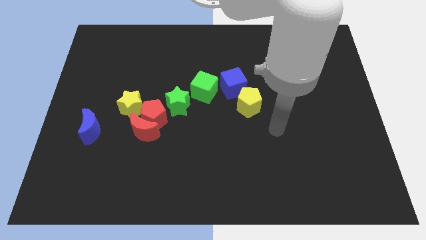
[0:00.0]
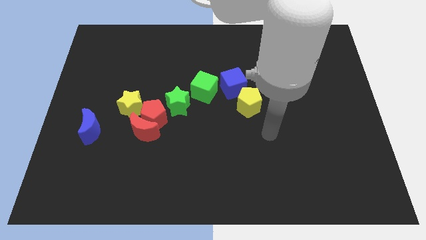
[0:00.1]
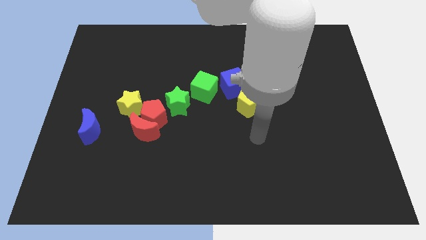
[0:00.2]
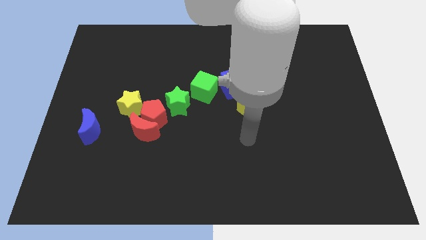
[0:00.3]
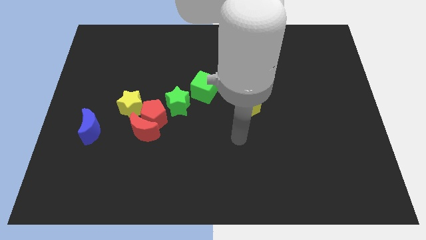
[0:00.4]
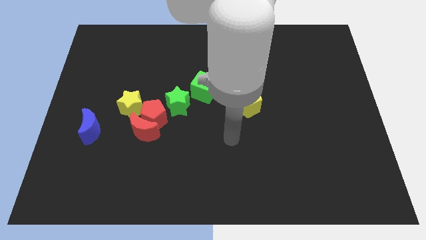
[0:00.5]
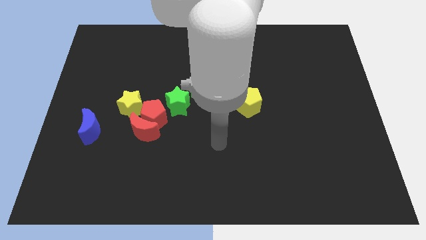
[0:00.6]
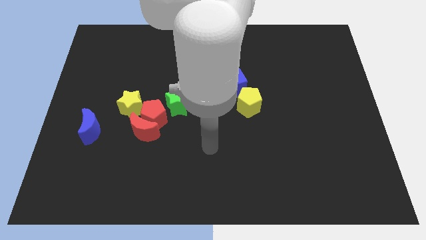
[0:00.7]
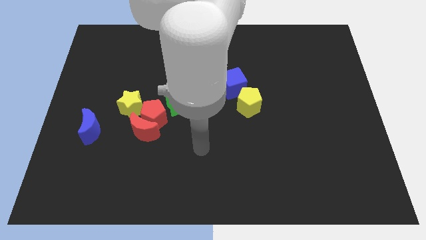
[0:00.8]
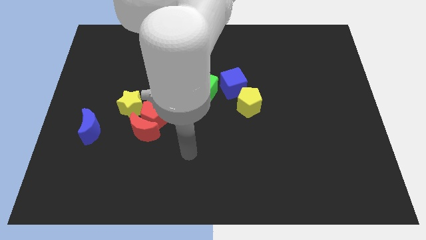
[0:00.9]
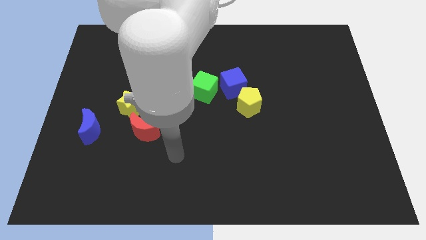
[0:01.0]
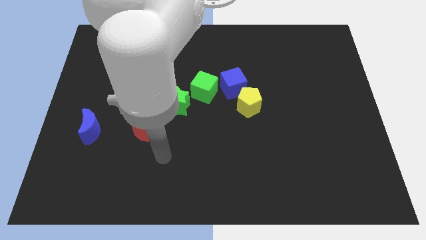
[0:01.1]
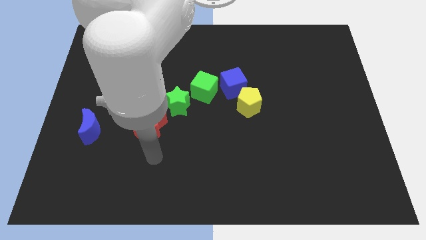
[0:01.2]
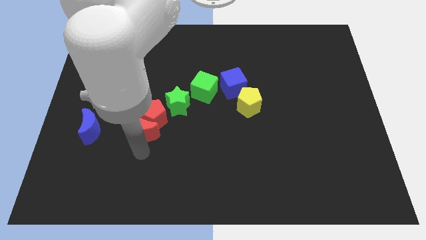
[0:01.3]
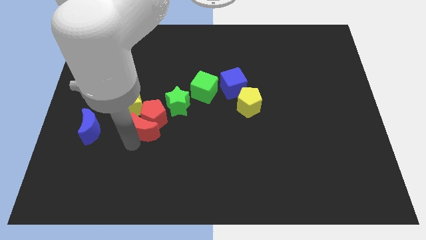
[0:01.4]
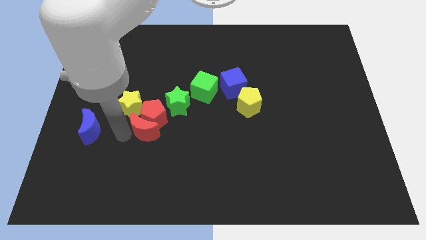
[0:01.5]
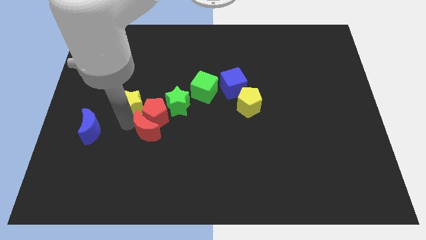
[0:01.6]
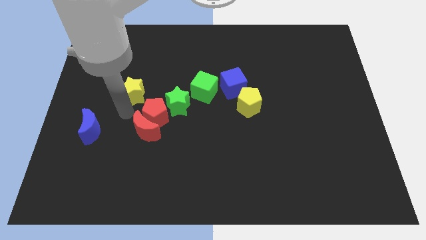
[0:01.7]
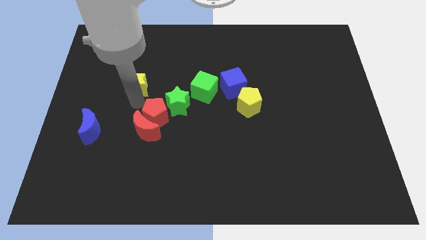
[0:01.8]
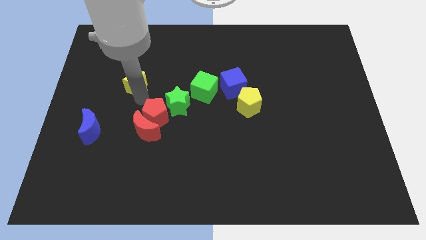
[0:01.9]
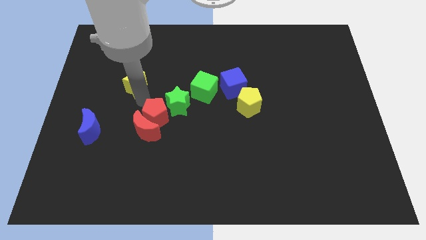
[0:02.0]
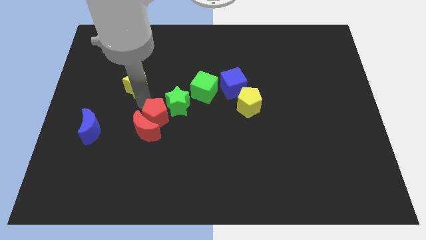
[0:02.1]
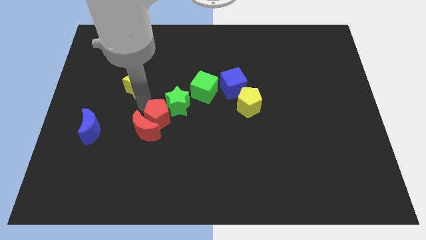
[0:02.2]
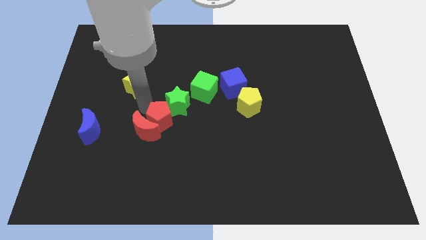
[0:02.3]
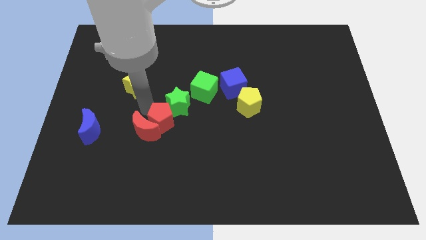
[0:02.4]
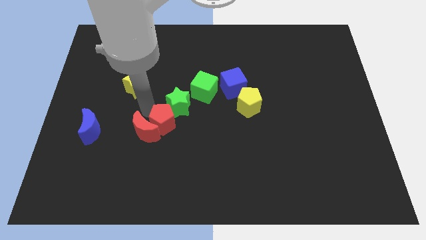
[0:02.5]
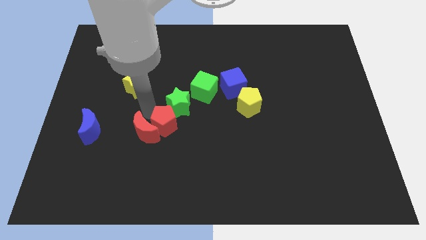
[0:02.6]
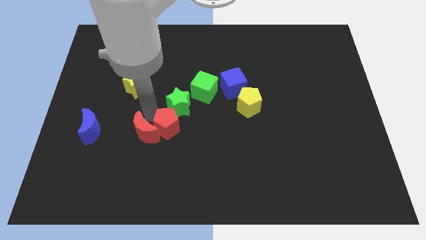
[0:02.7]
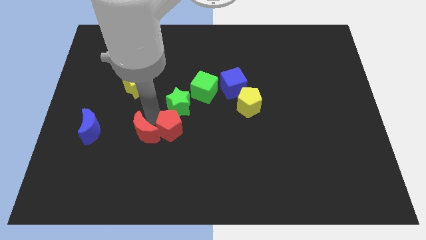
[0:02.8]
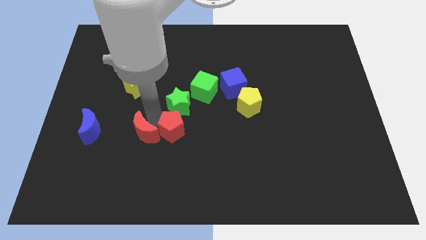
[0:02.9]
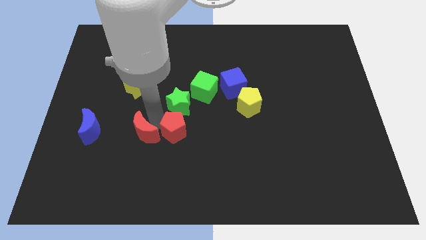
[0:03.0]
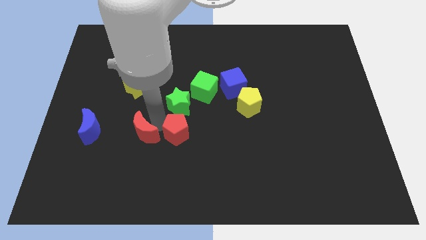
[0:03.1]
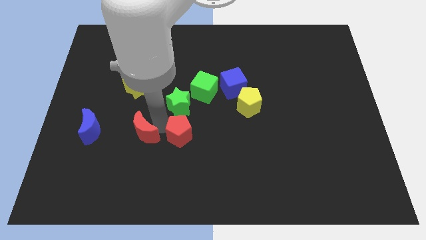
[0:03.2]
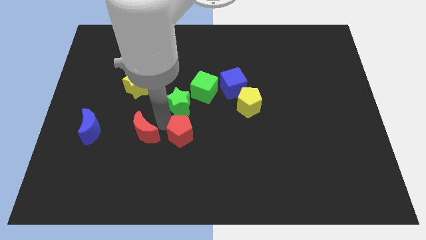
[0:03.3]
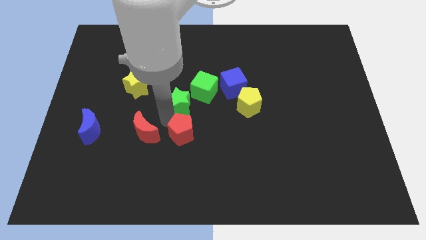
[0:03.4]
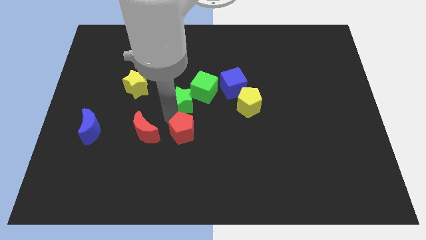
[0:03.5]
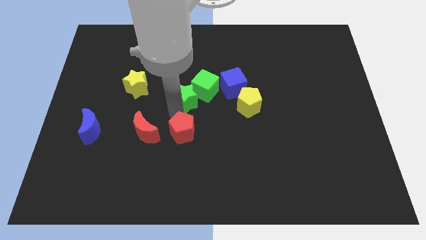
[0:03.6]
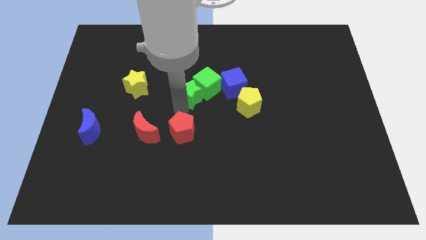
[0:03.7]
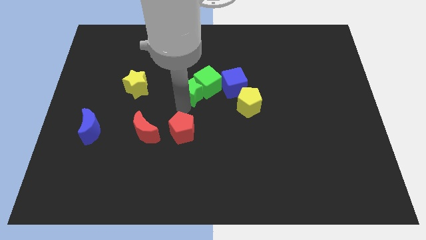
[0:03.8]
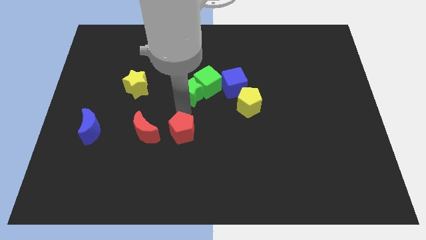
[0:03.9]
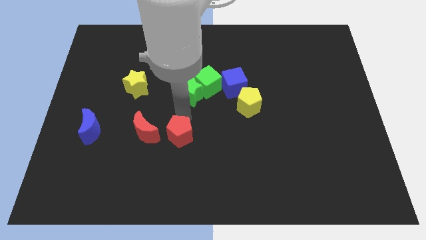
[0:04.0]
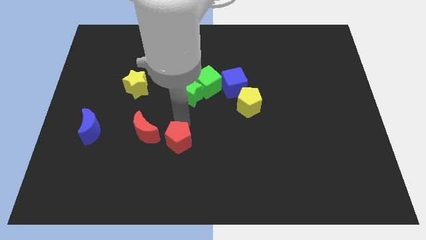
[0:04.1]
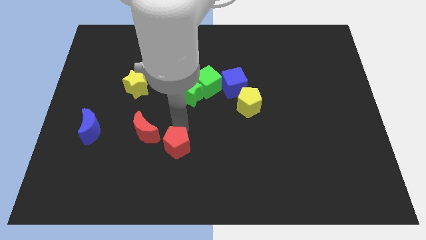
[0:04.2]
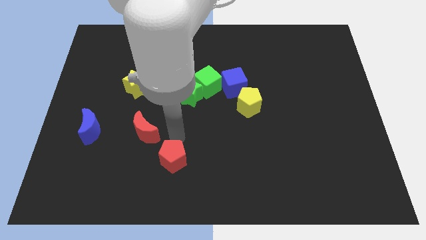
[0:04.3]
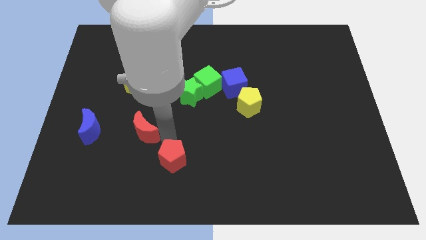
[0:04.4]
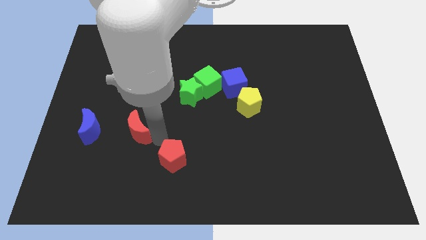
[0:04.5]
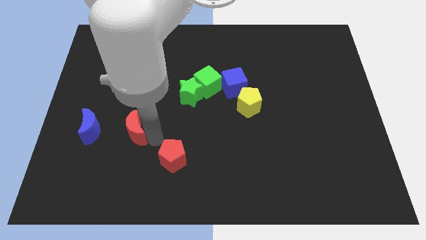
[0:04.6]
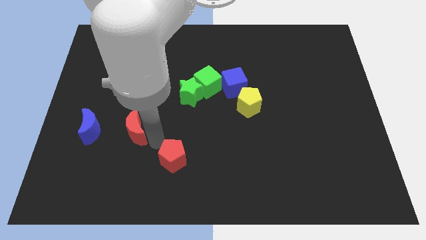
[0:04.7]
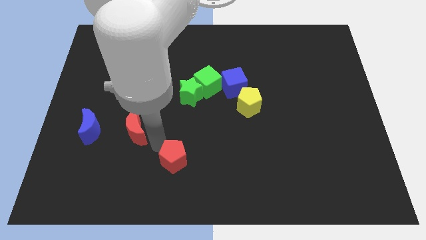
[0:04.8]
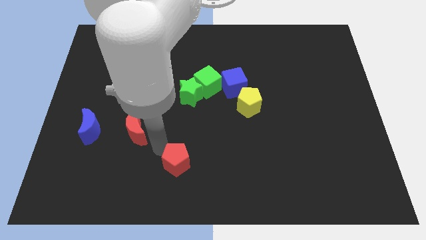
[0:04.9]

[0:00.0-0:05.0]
put the red pentagon to the bottom
